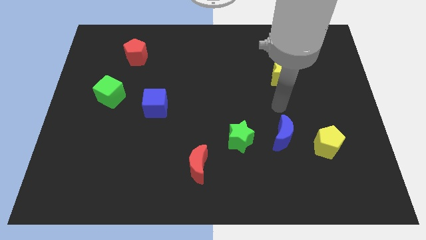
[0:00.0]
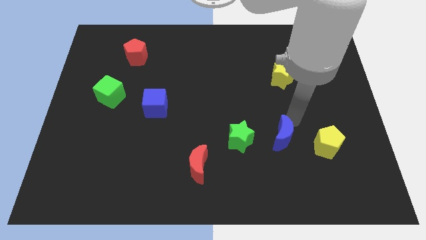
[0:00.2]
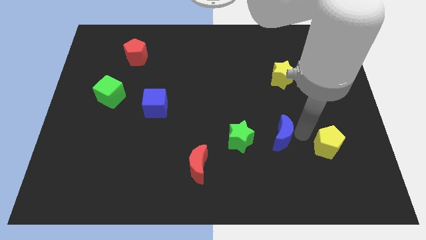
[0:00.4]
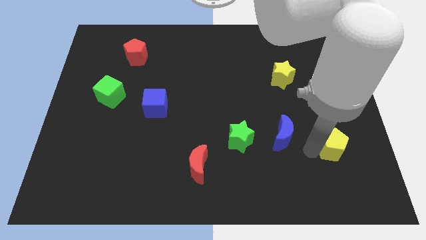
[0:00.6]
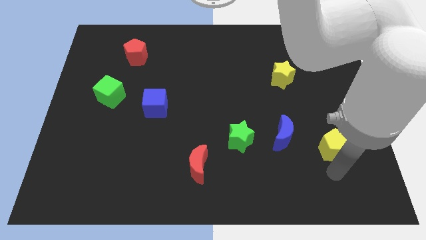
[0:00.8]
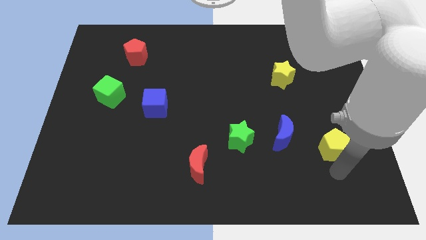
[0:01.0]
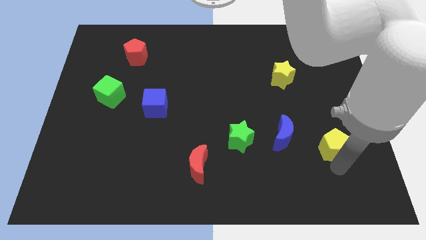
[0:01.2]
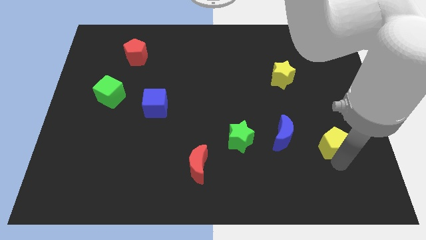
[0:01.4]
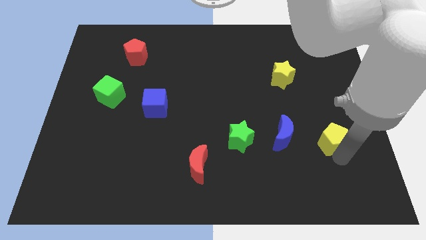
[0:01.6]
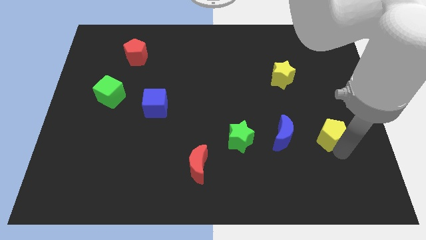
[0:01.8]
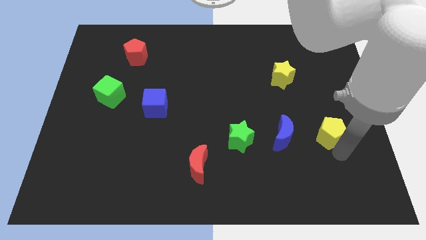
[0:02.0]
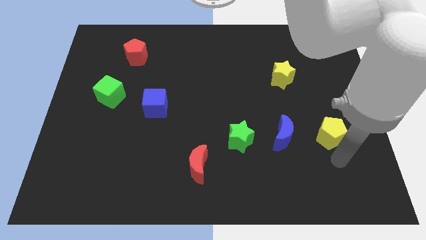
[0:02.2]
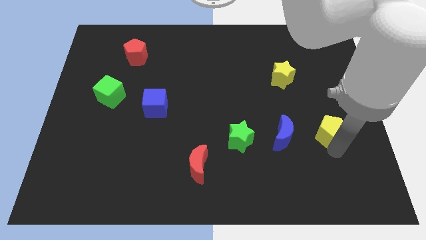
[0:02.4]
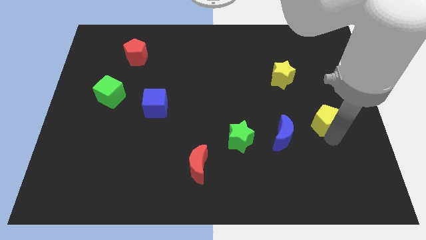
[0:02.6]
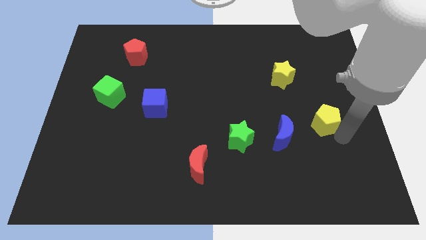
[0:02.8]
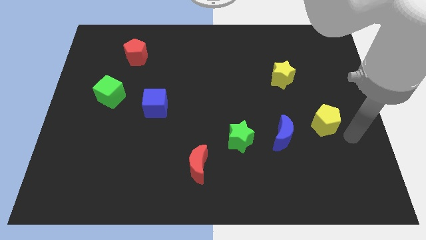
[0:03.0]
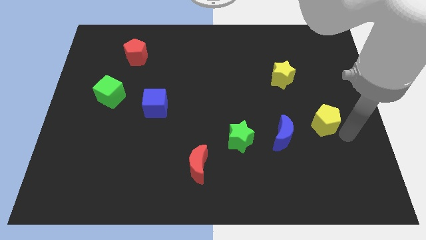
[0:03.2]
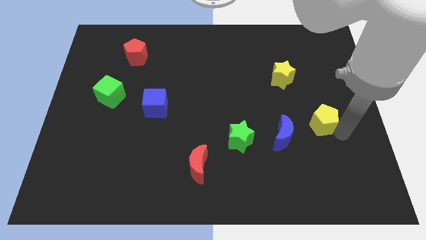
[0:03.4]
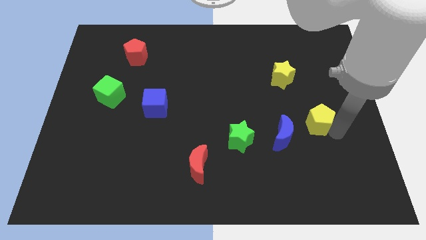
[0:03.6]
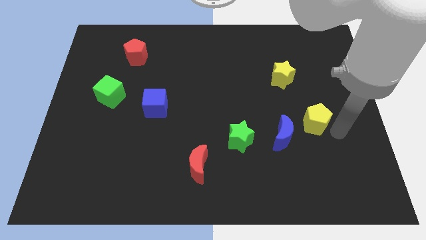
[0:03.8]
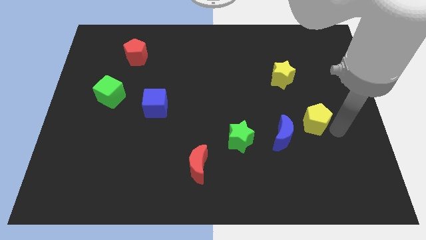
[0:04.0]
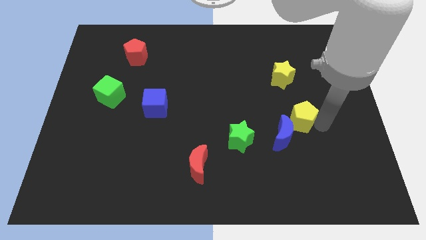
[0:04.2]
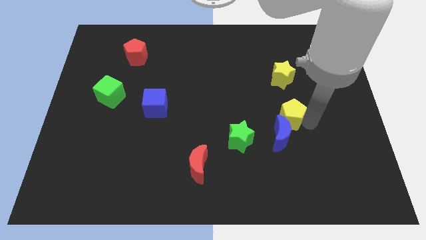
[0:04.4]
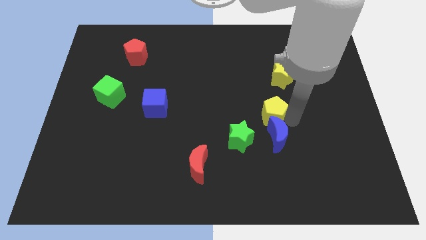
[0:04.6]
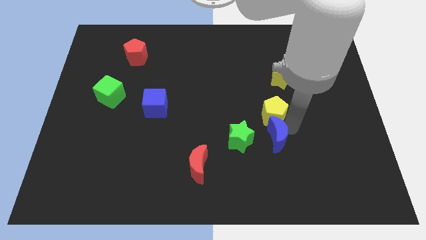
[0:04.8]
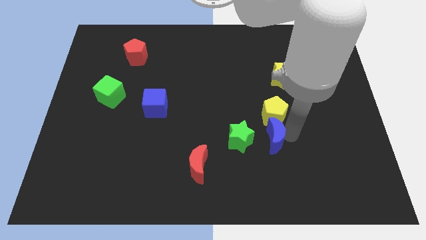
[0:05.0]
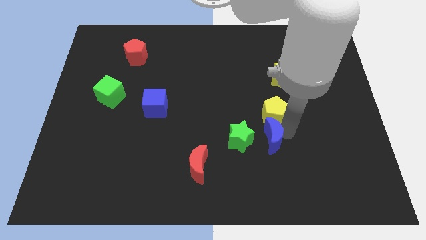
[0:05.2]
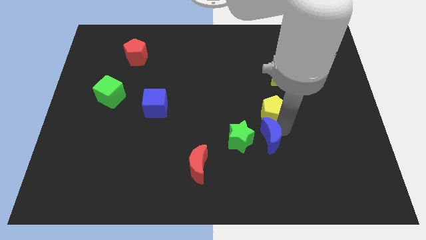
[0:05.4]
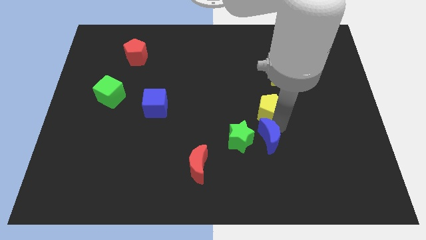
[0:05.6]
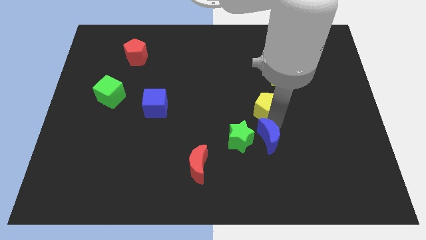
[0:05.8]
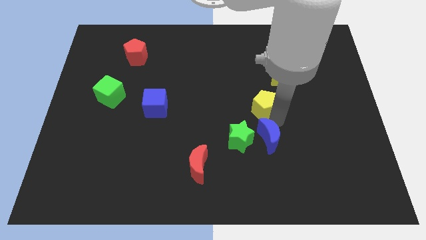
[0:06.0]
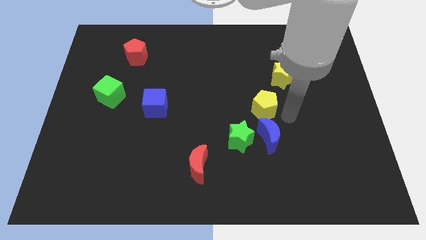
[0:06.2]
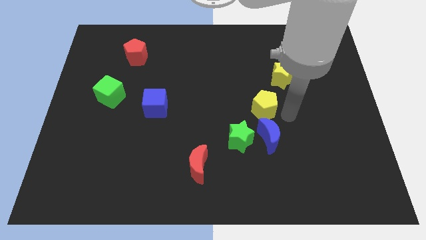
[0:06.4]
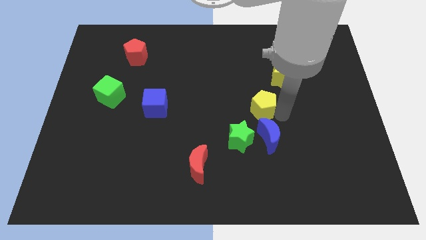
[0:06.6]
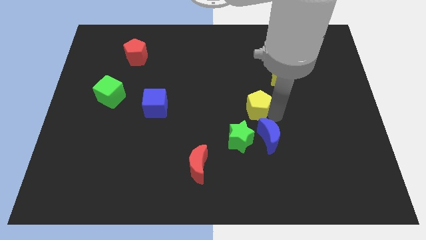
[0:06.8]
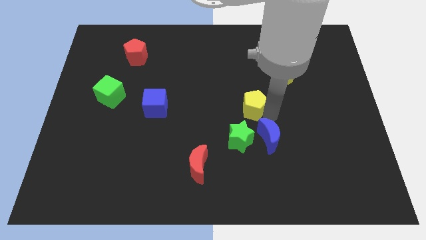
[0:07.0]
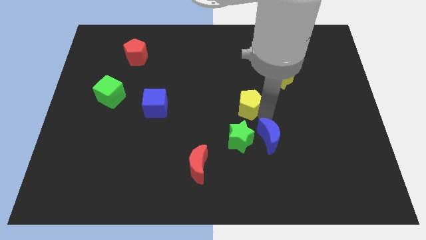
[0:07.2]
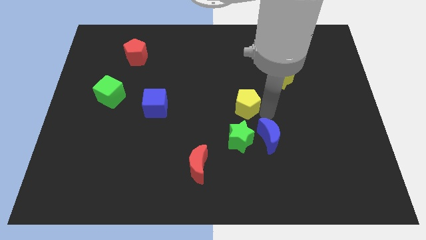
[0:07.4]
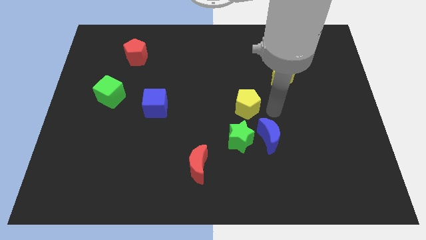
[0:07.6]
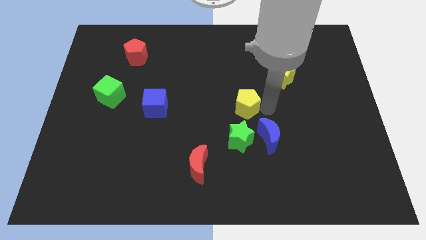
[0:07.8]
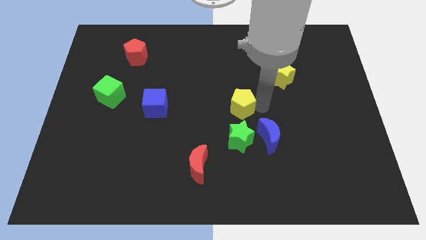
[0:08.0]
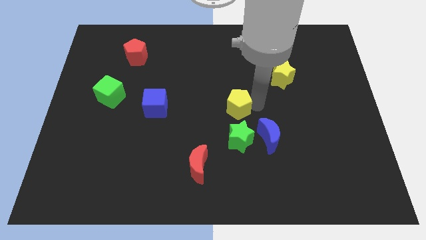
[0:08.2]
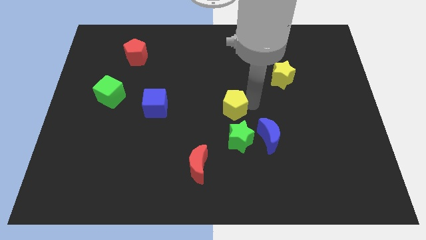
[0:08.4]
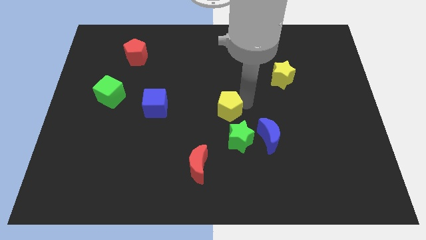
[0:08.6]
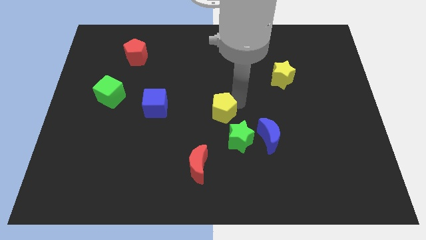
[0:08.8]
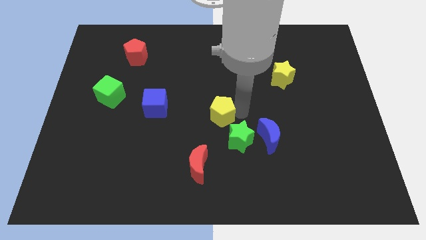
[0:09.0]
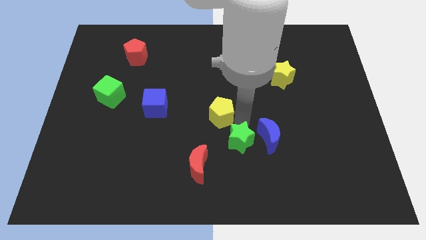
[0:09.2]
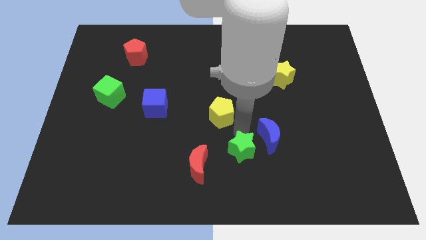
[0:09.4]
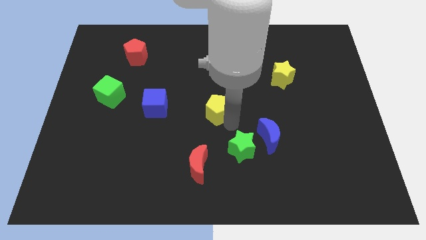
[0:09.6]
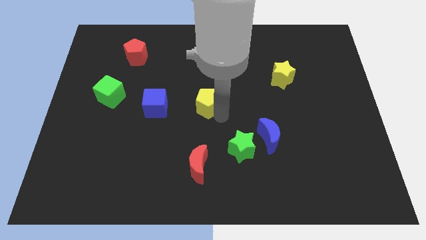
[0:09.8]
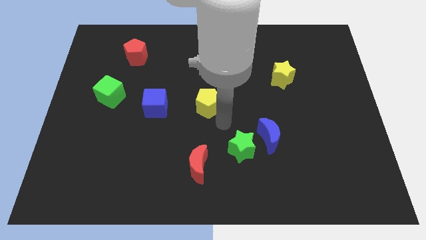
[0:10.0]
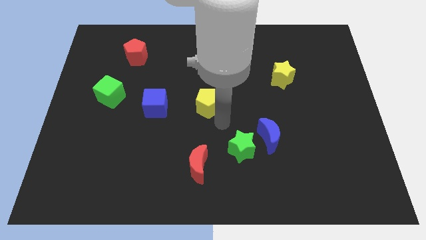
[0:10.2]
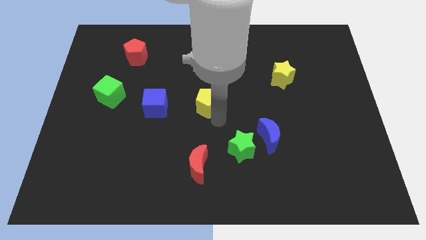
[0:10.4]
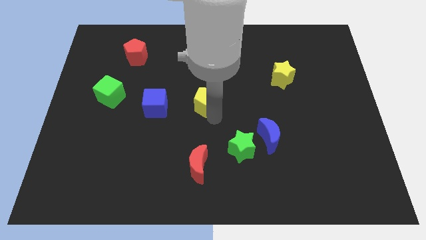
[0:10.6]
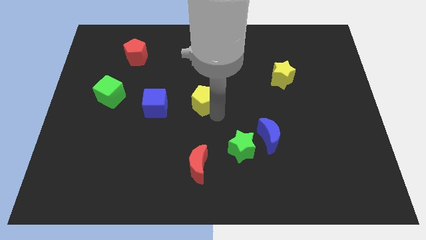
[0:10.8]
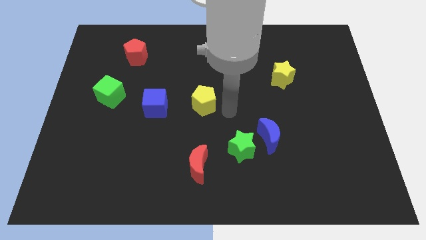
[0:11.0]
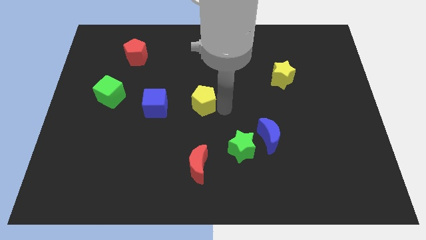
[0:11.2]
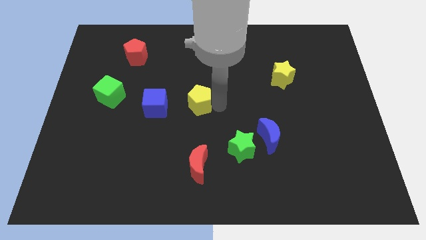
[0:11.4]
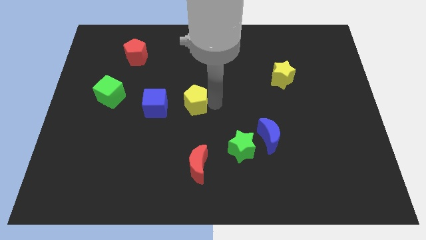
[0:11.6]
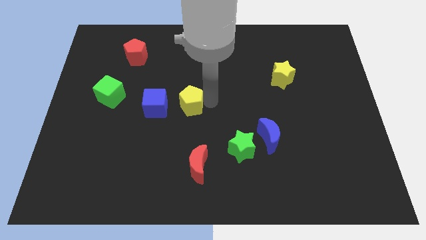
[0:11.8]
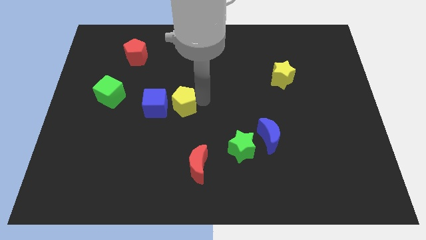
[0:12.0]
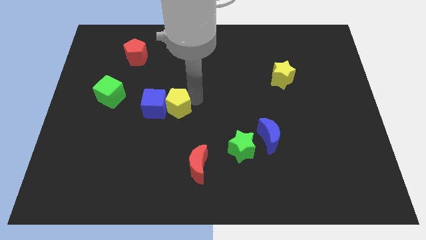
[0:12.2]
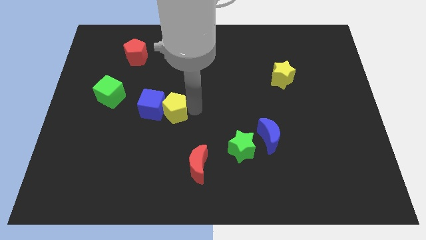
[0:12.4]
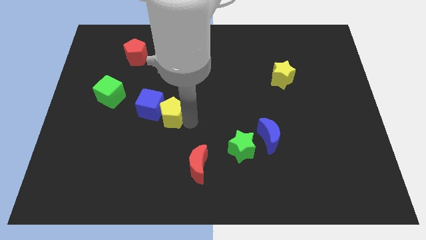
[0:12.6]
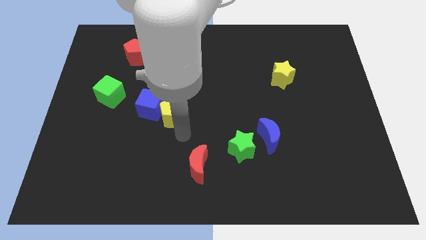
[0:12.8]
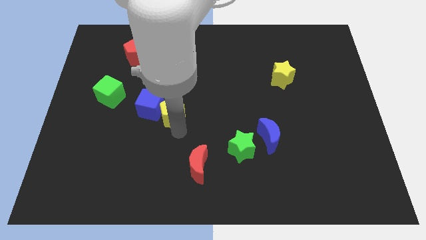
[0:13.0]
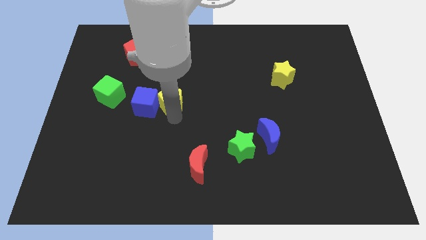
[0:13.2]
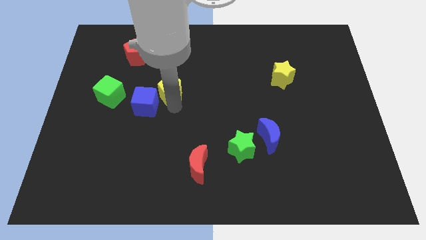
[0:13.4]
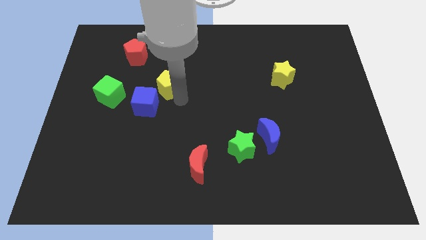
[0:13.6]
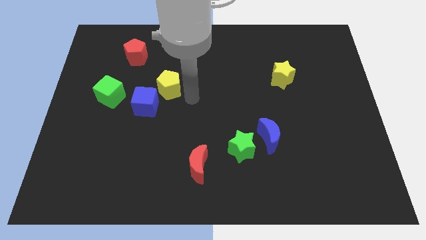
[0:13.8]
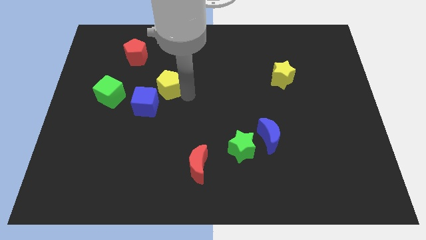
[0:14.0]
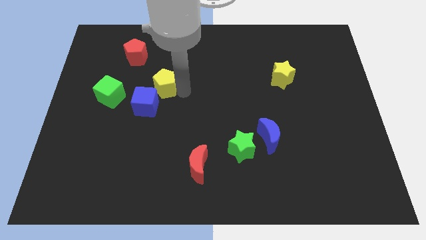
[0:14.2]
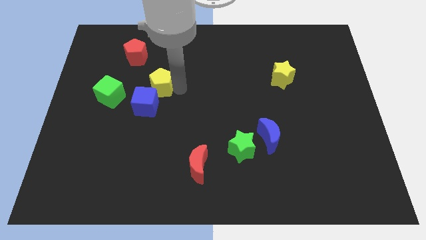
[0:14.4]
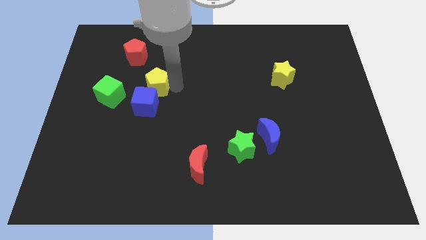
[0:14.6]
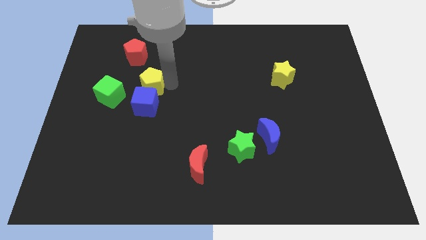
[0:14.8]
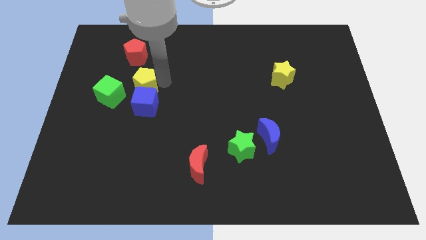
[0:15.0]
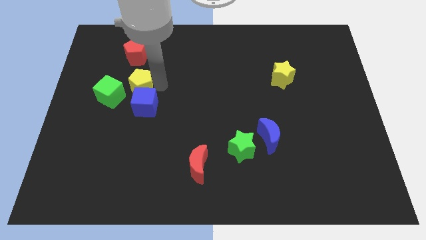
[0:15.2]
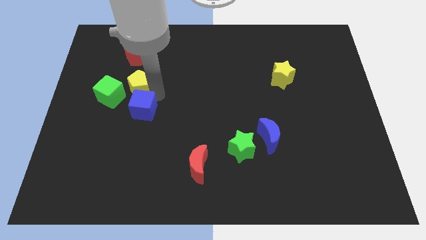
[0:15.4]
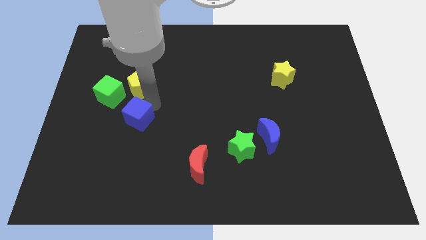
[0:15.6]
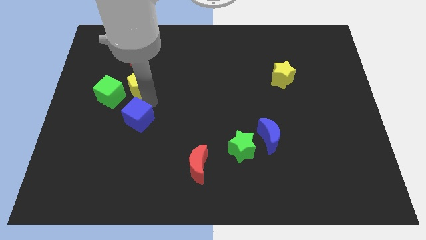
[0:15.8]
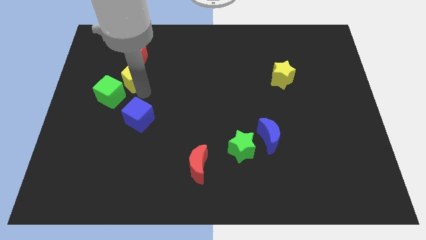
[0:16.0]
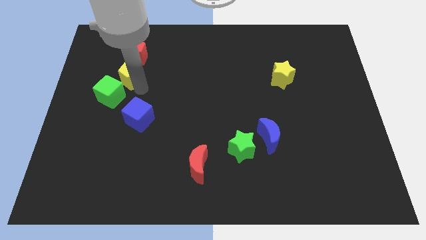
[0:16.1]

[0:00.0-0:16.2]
move the yellow pentagon above the green cube
